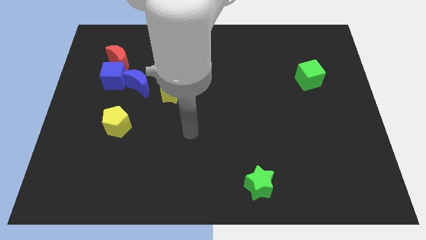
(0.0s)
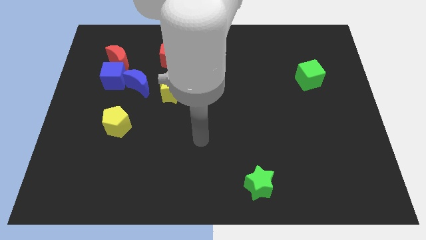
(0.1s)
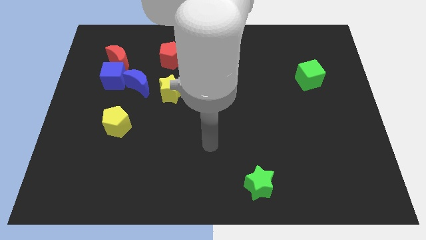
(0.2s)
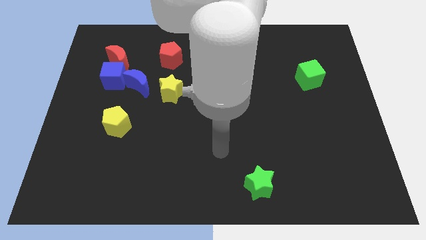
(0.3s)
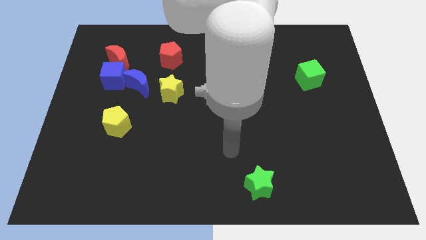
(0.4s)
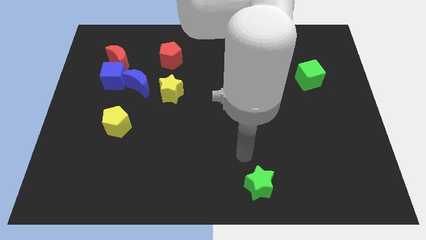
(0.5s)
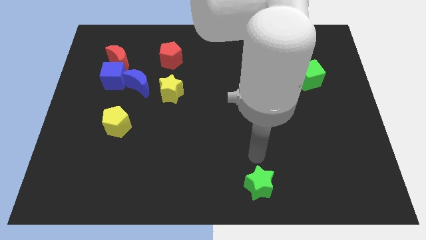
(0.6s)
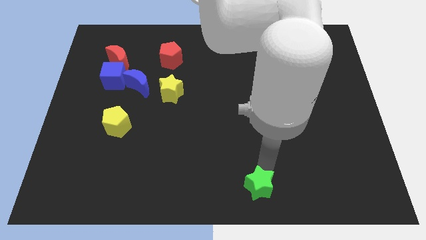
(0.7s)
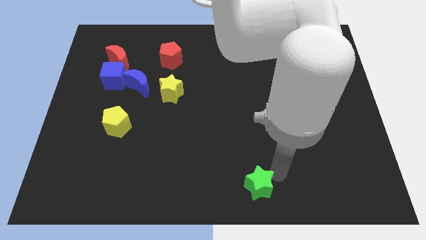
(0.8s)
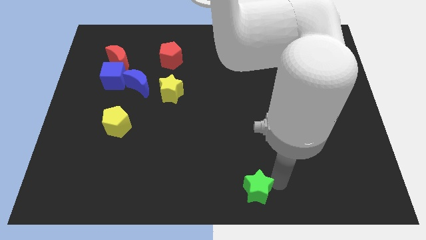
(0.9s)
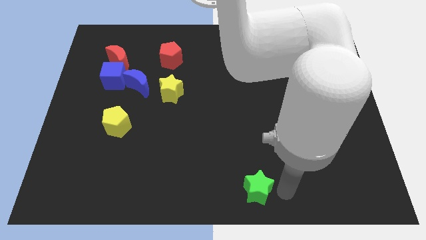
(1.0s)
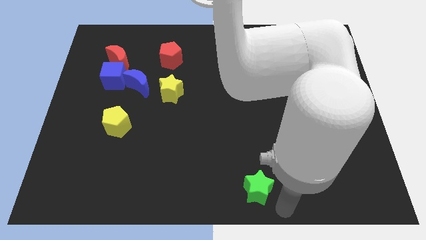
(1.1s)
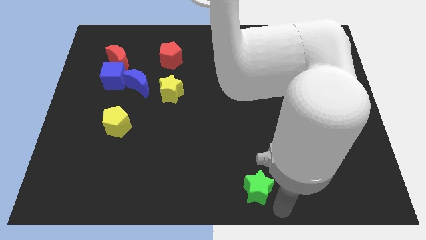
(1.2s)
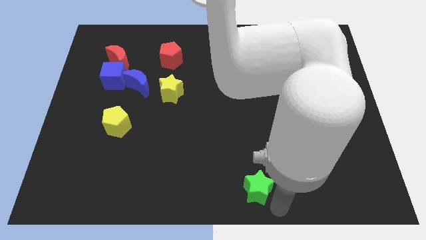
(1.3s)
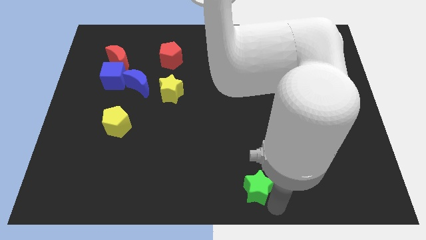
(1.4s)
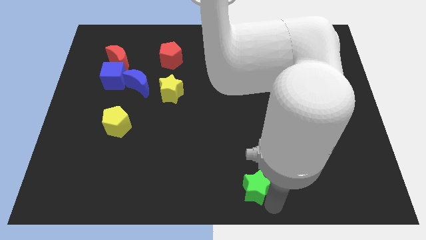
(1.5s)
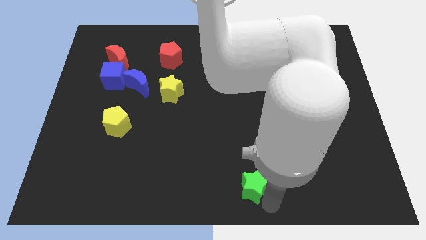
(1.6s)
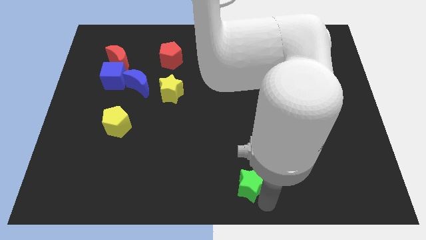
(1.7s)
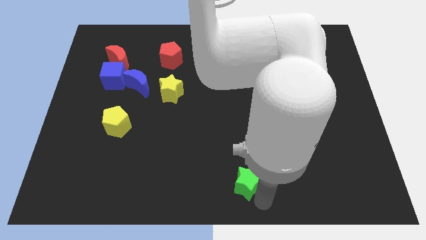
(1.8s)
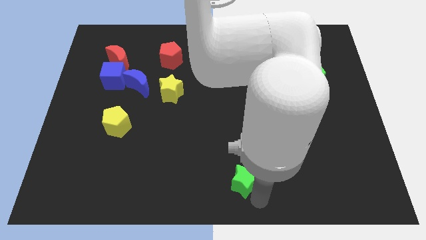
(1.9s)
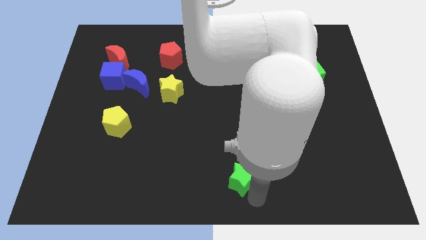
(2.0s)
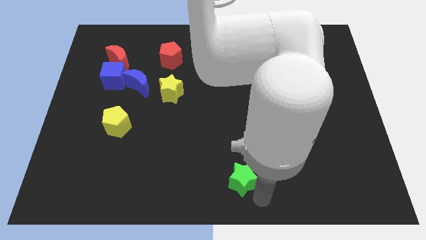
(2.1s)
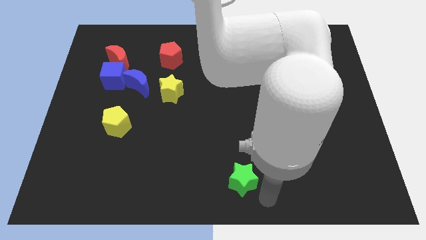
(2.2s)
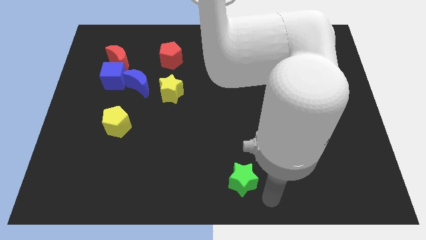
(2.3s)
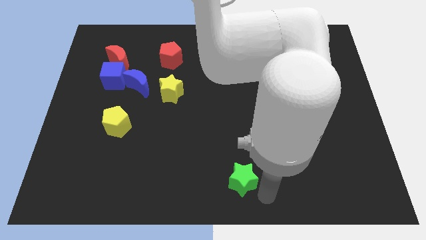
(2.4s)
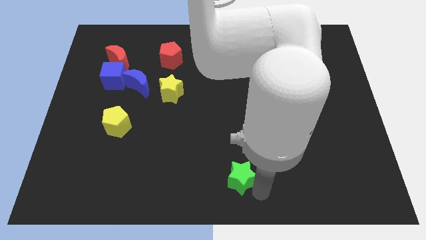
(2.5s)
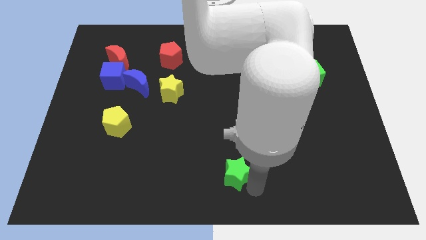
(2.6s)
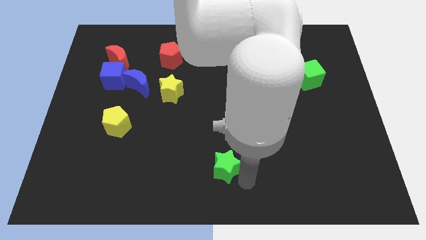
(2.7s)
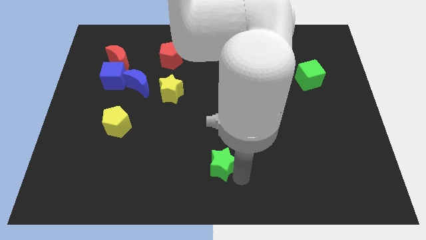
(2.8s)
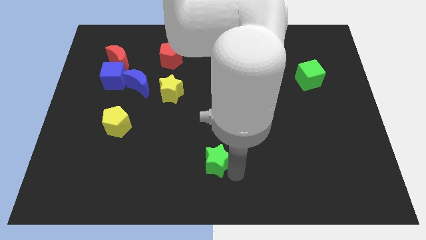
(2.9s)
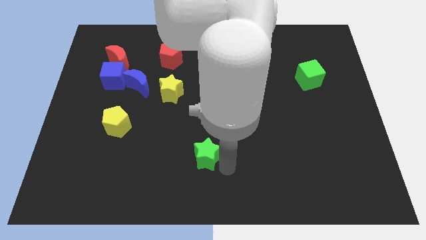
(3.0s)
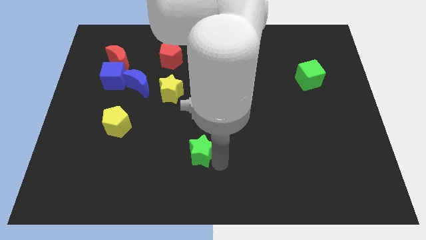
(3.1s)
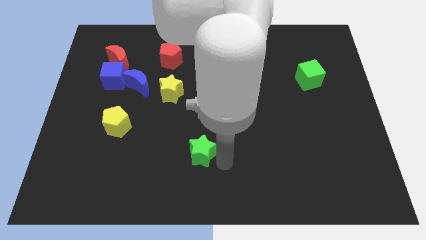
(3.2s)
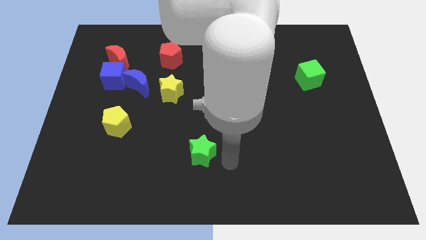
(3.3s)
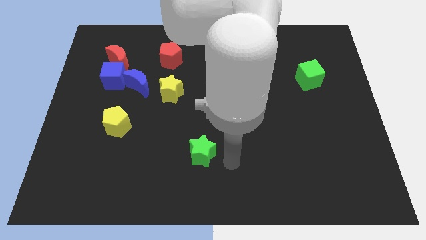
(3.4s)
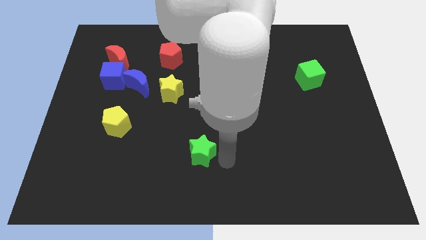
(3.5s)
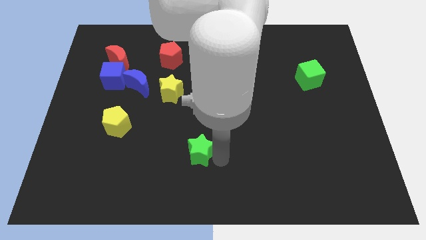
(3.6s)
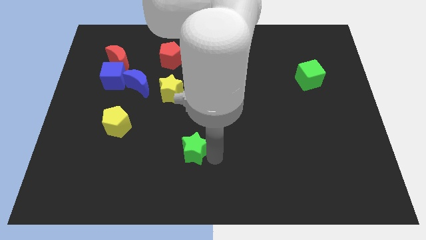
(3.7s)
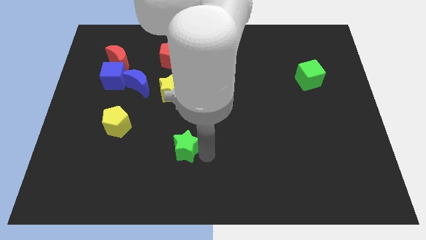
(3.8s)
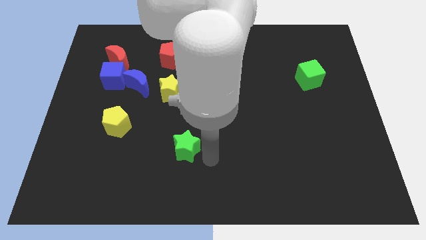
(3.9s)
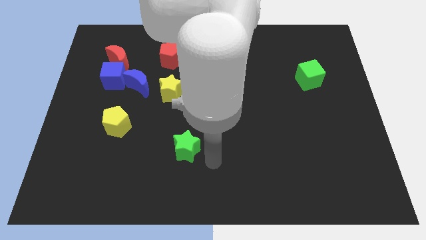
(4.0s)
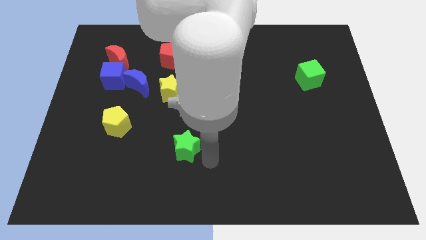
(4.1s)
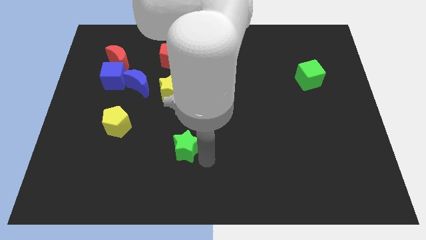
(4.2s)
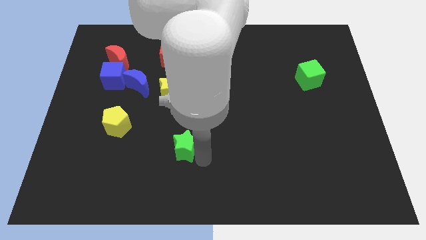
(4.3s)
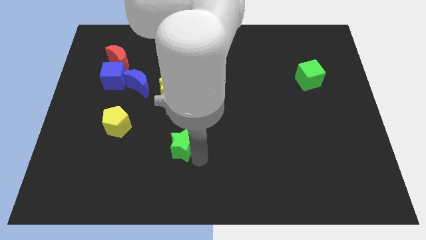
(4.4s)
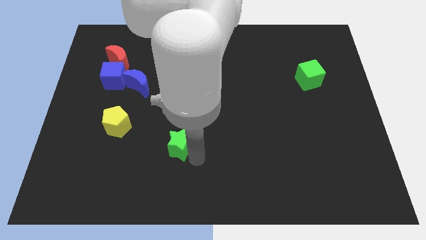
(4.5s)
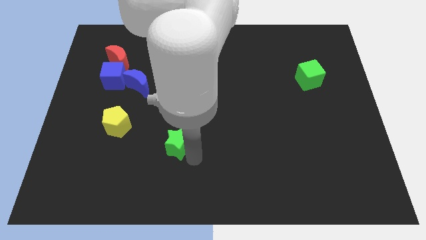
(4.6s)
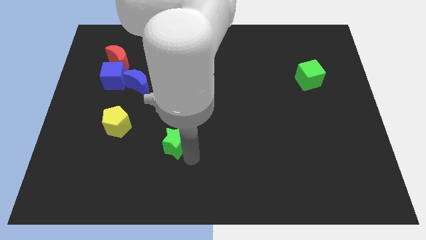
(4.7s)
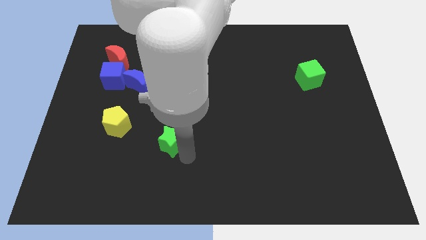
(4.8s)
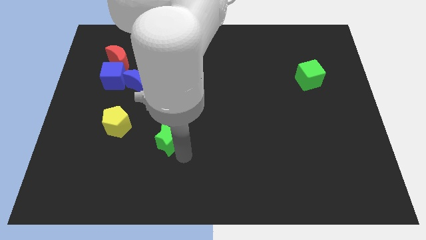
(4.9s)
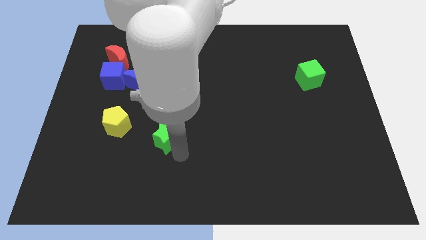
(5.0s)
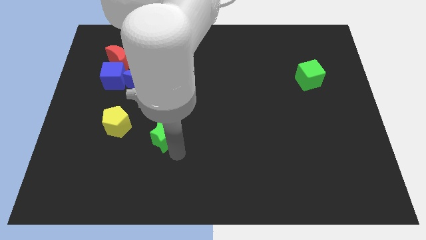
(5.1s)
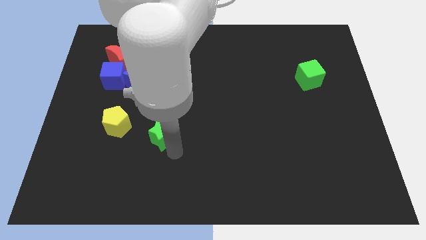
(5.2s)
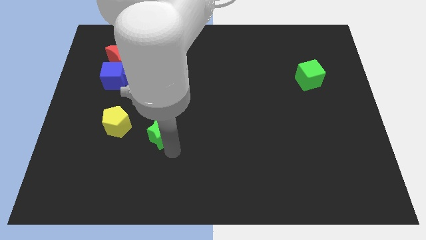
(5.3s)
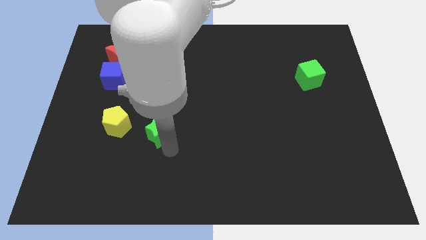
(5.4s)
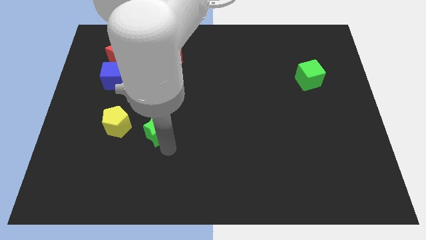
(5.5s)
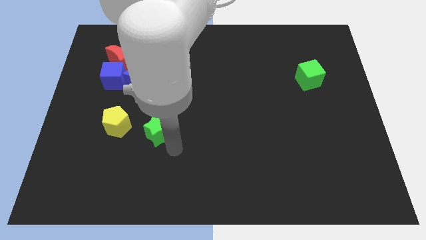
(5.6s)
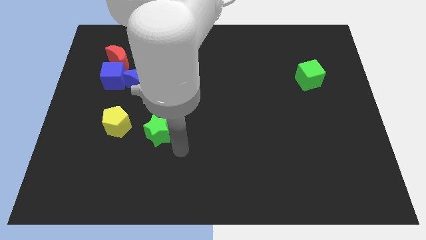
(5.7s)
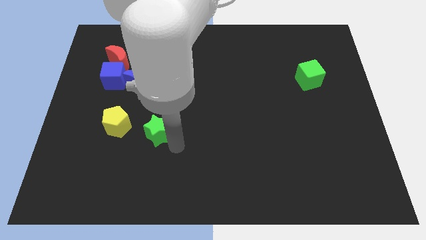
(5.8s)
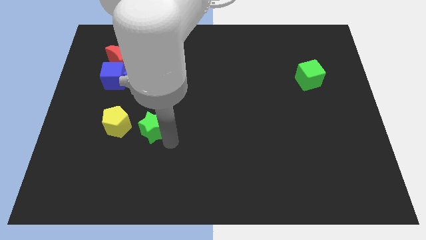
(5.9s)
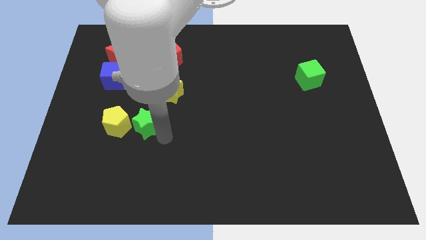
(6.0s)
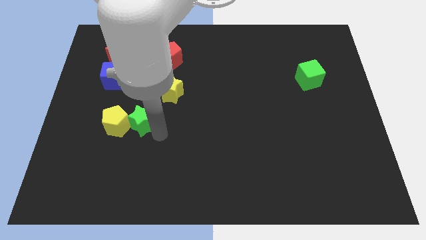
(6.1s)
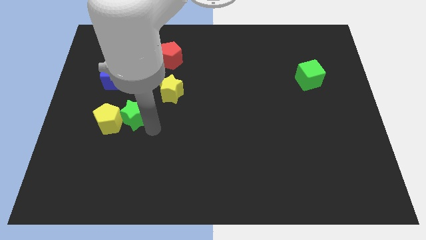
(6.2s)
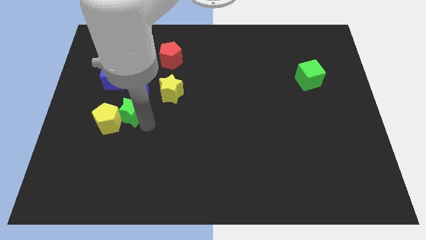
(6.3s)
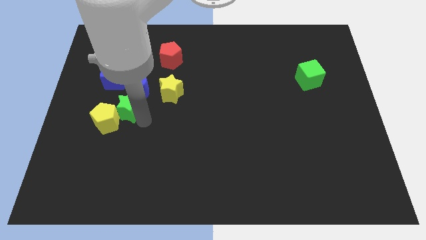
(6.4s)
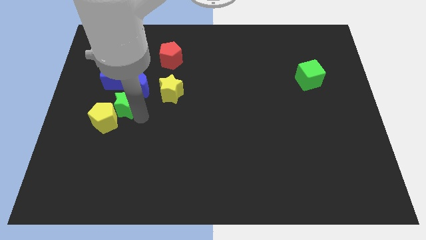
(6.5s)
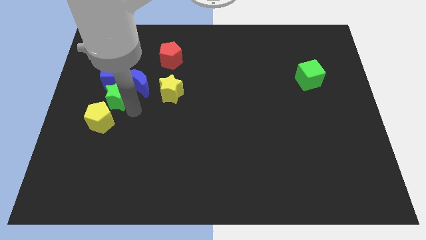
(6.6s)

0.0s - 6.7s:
put the green star left of the blue moon
